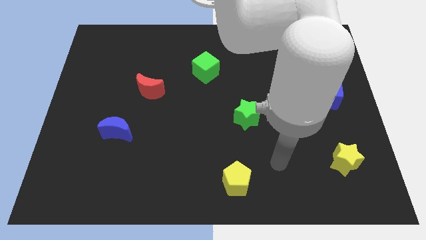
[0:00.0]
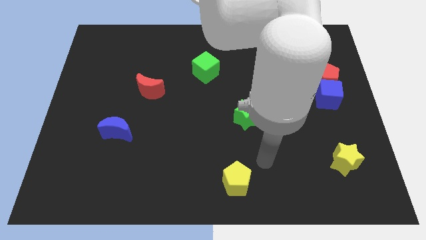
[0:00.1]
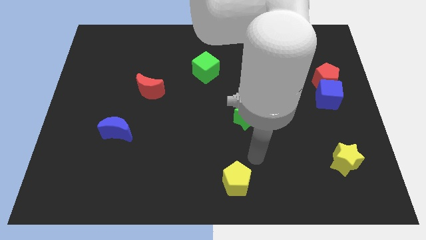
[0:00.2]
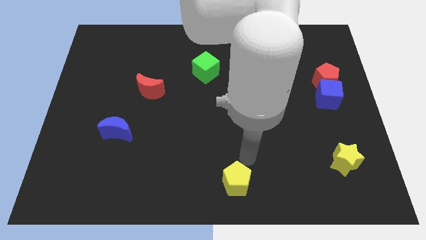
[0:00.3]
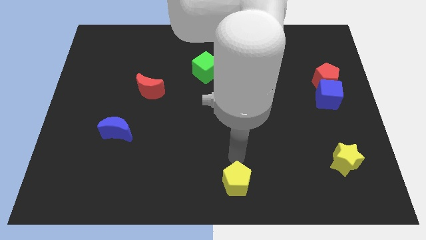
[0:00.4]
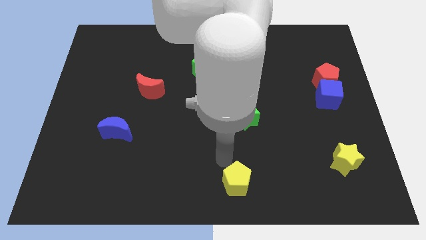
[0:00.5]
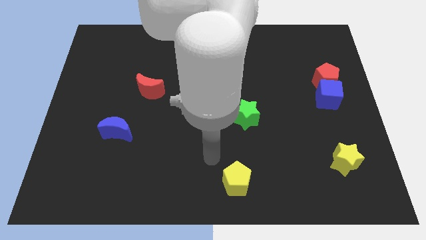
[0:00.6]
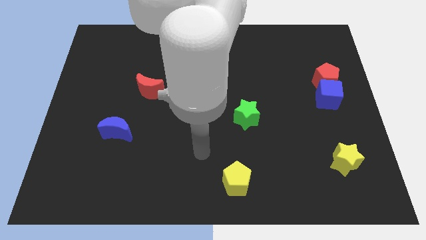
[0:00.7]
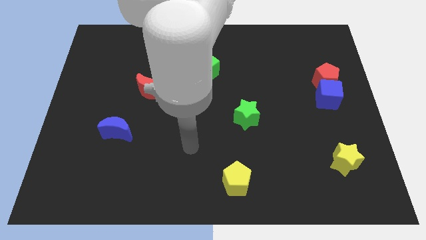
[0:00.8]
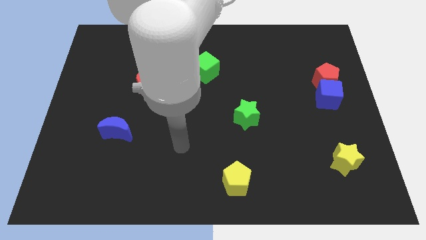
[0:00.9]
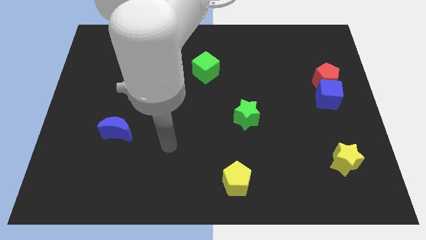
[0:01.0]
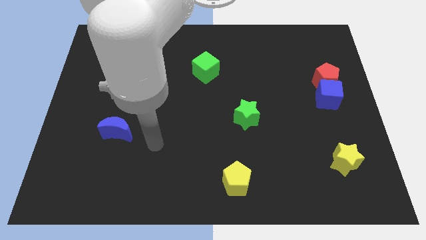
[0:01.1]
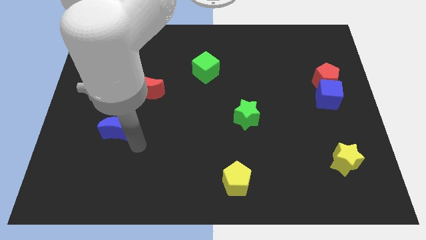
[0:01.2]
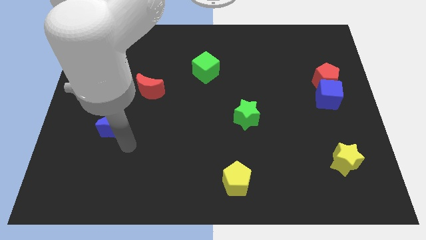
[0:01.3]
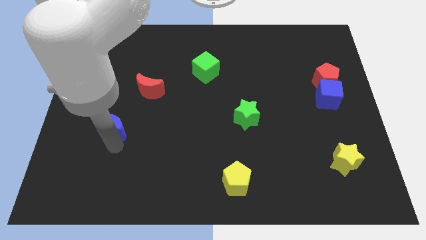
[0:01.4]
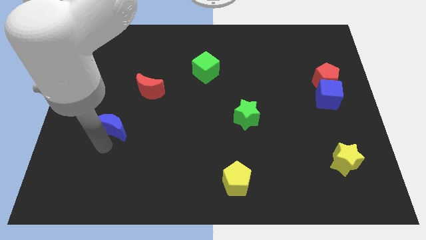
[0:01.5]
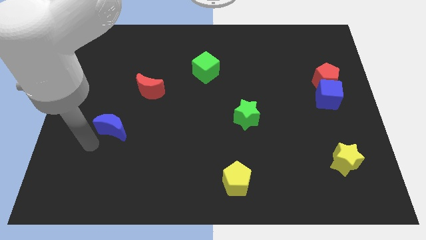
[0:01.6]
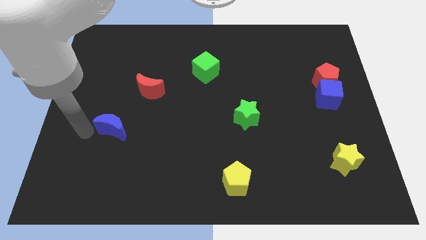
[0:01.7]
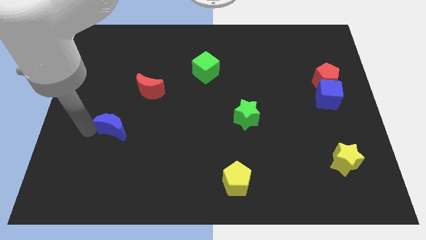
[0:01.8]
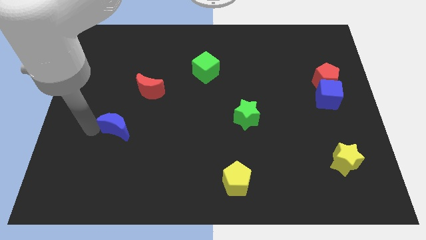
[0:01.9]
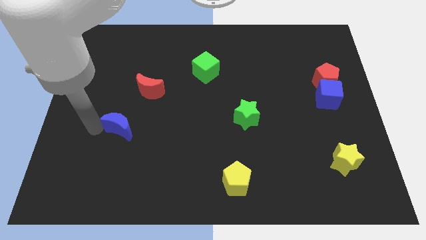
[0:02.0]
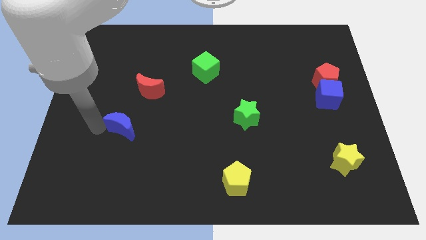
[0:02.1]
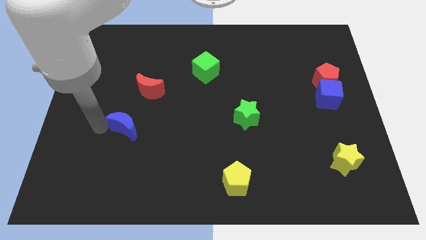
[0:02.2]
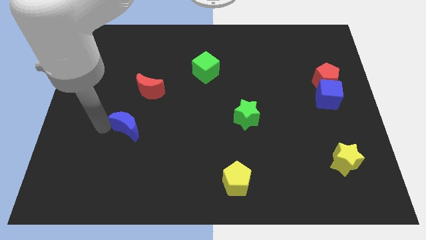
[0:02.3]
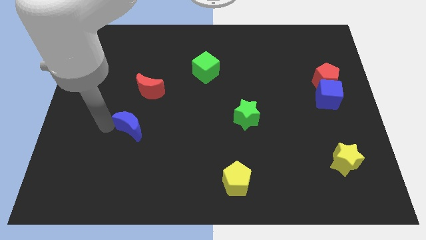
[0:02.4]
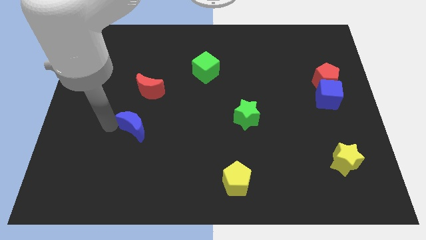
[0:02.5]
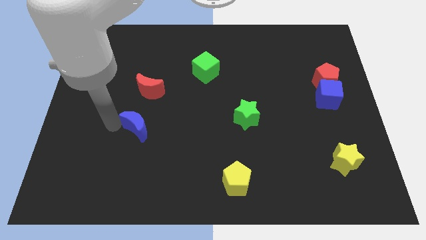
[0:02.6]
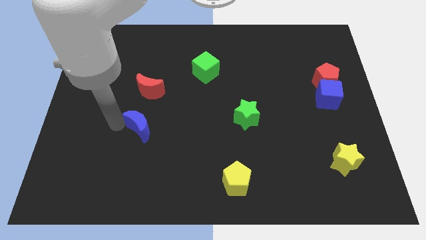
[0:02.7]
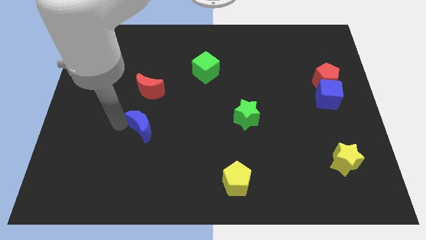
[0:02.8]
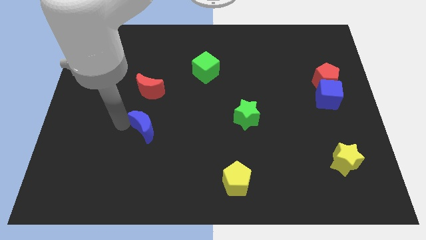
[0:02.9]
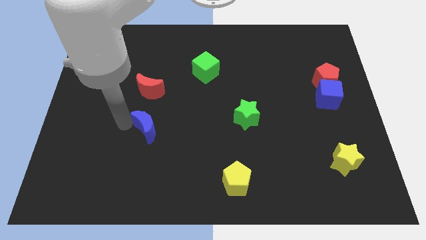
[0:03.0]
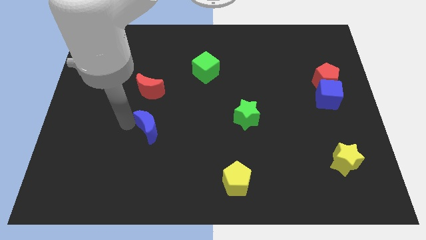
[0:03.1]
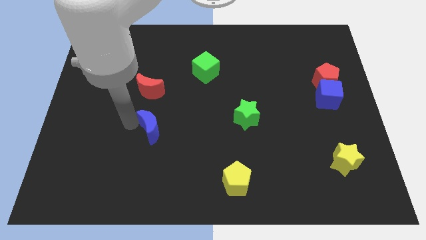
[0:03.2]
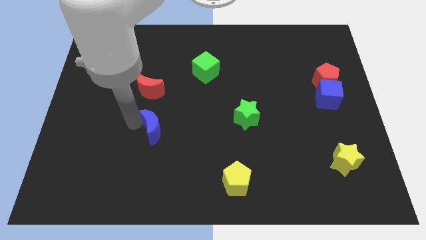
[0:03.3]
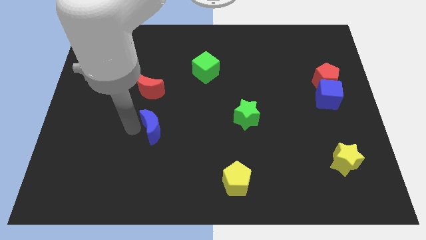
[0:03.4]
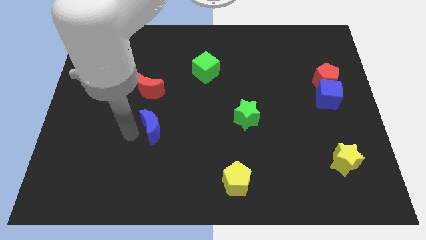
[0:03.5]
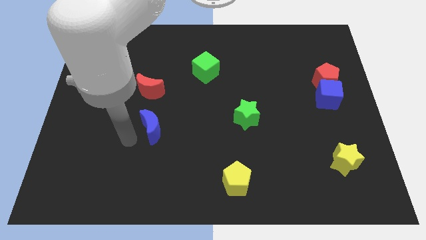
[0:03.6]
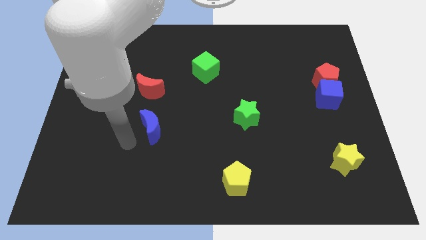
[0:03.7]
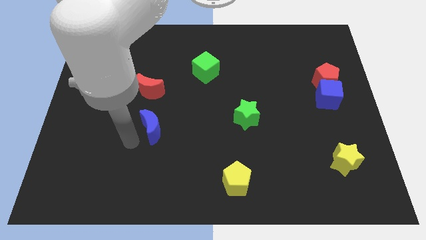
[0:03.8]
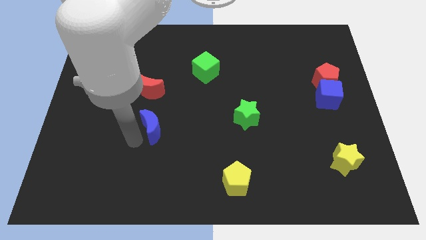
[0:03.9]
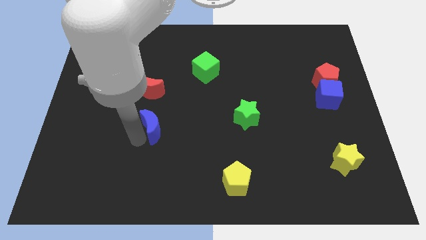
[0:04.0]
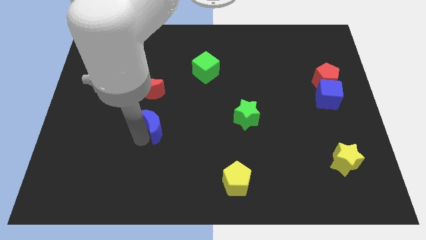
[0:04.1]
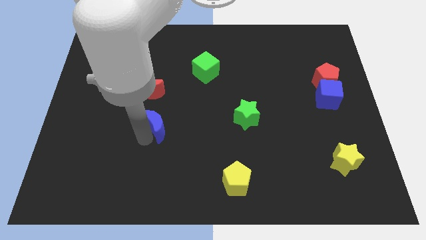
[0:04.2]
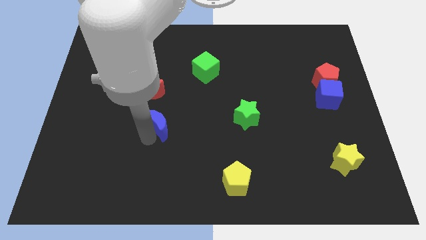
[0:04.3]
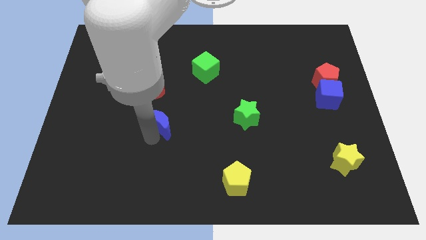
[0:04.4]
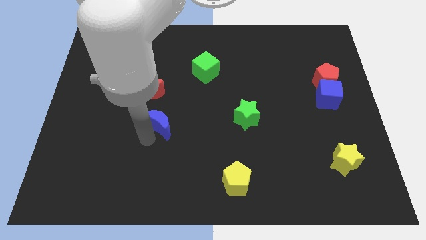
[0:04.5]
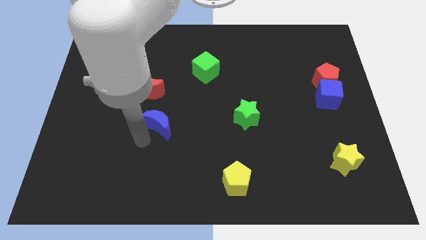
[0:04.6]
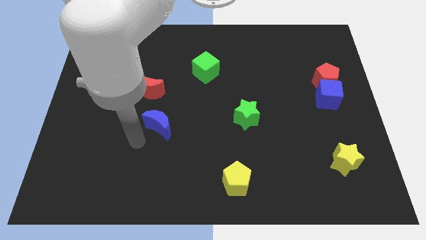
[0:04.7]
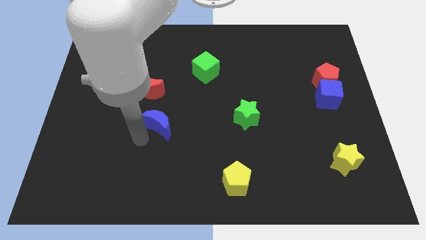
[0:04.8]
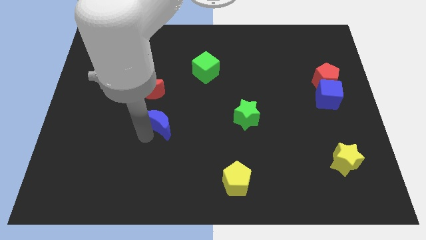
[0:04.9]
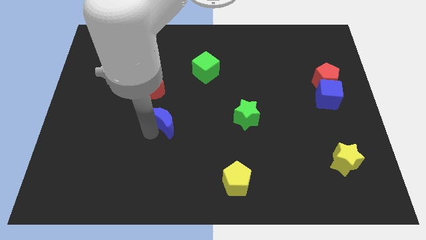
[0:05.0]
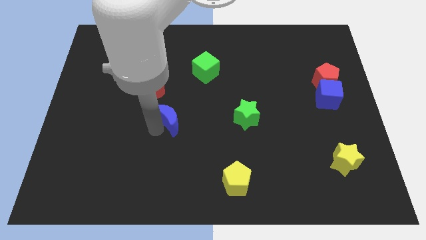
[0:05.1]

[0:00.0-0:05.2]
put the blue moon to the center

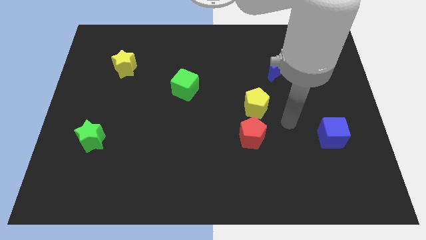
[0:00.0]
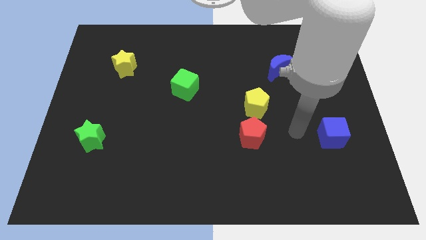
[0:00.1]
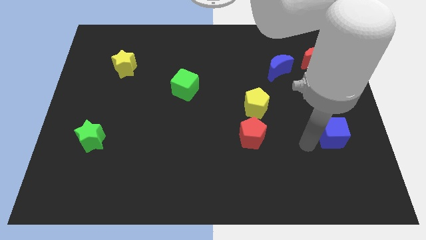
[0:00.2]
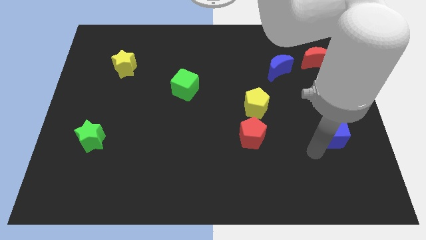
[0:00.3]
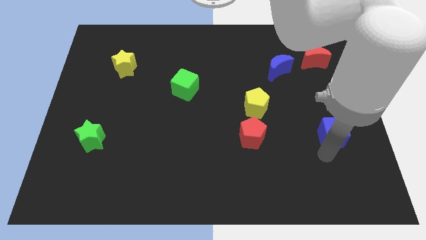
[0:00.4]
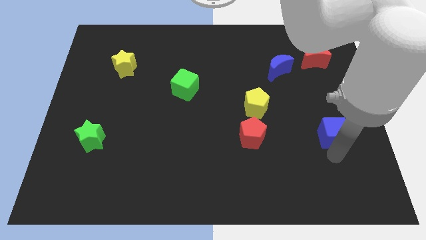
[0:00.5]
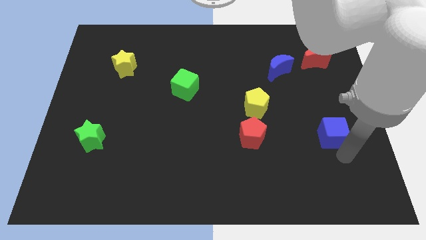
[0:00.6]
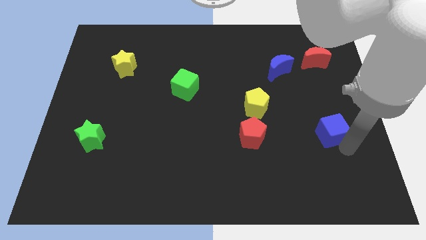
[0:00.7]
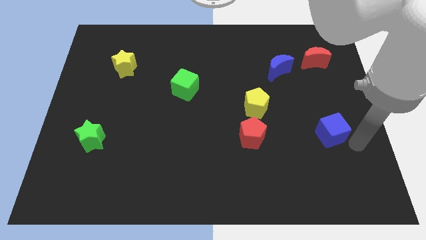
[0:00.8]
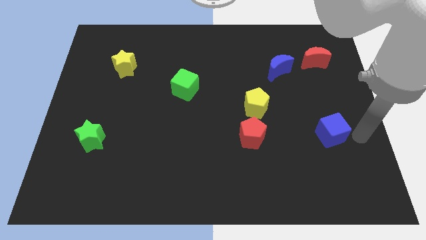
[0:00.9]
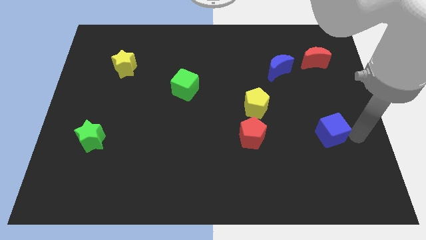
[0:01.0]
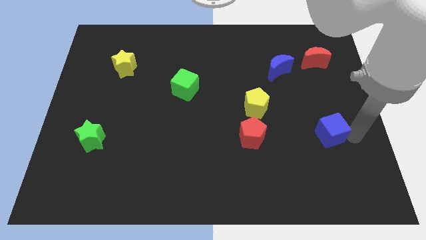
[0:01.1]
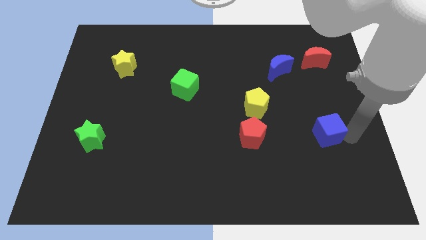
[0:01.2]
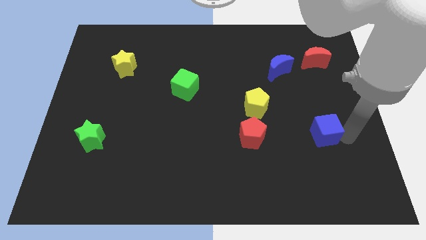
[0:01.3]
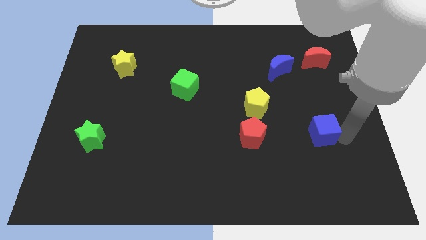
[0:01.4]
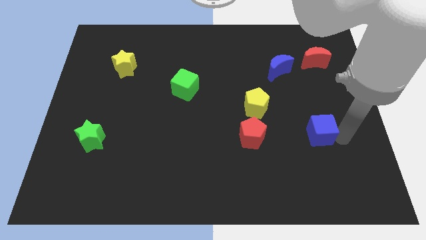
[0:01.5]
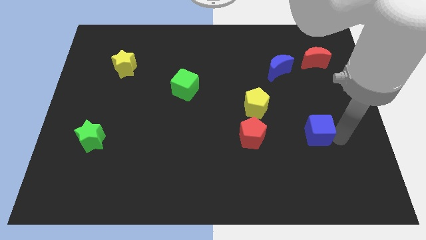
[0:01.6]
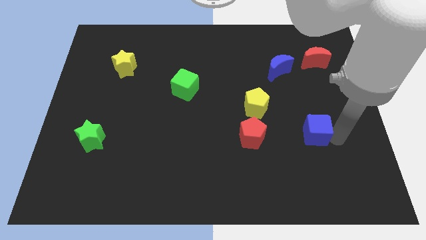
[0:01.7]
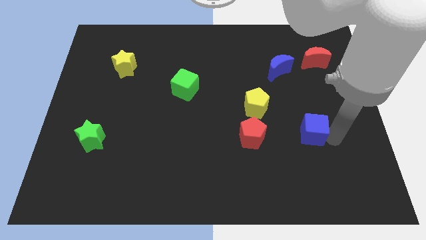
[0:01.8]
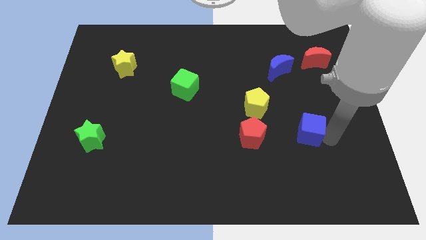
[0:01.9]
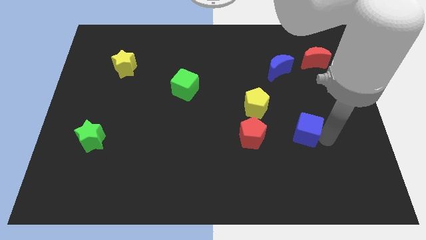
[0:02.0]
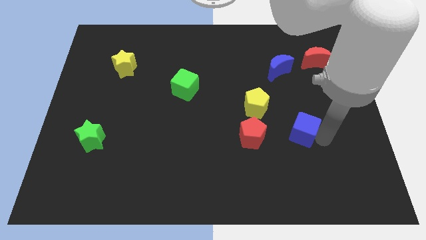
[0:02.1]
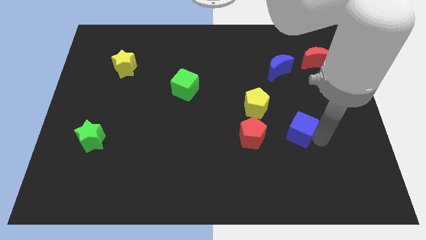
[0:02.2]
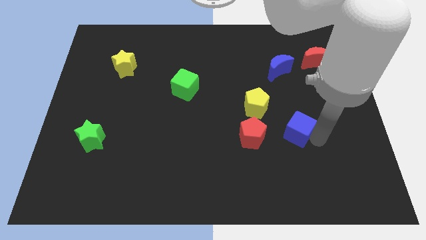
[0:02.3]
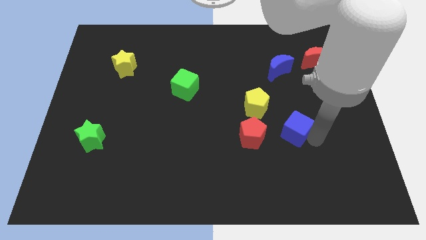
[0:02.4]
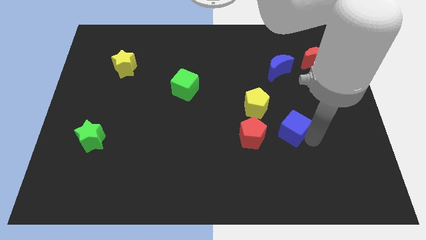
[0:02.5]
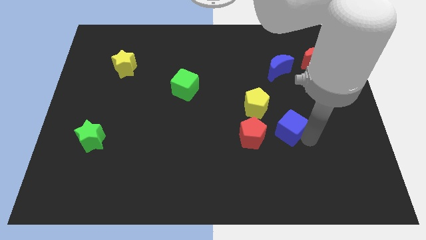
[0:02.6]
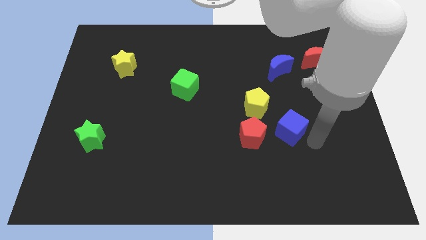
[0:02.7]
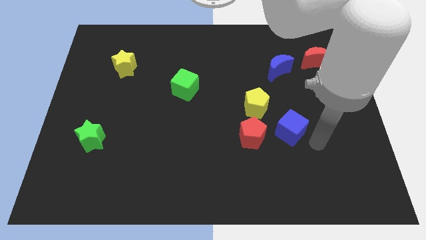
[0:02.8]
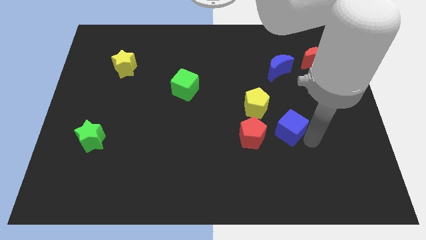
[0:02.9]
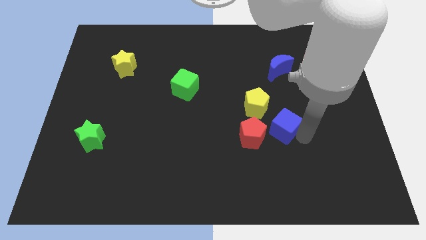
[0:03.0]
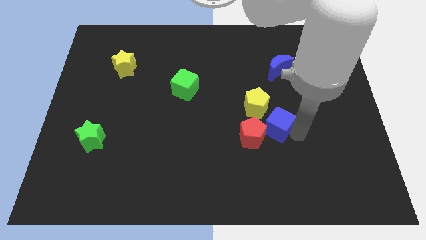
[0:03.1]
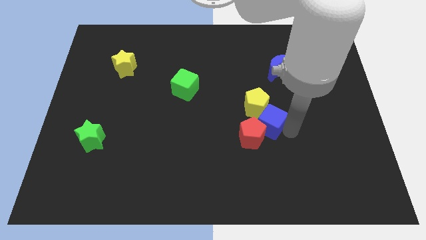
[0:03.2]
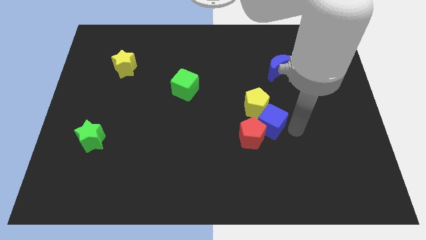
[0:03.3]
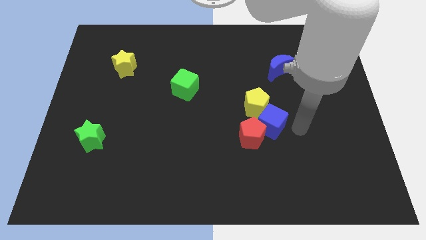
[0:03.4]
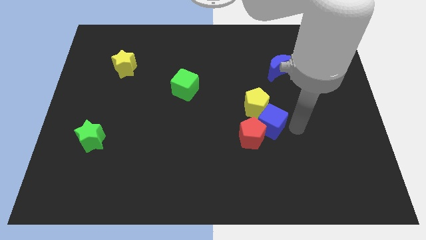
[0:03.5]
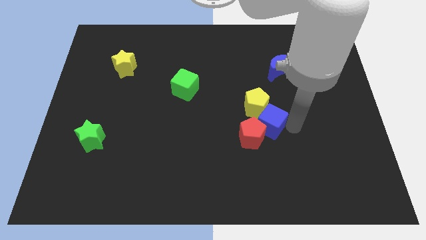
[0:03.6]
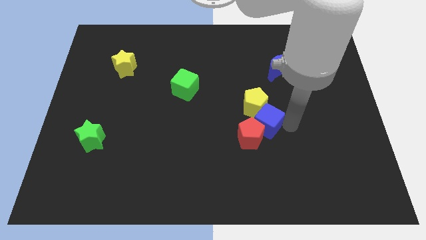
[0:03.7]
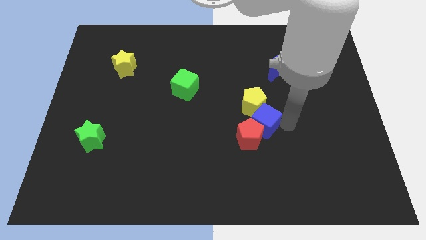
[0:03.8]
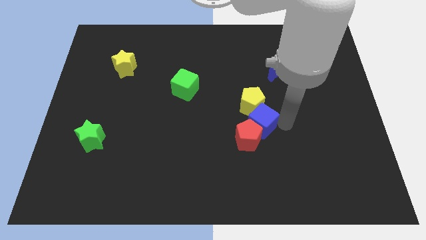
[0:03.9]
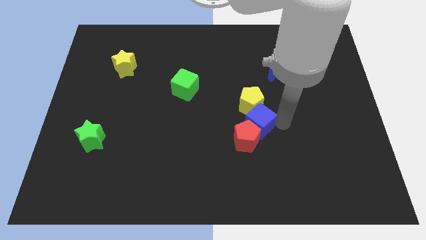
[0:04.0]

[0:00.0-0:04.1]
slide the blue cube to the middle of the board
